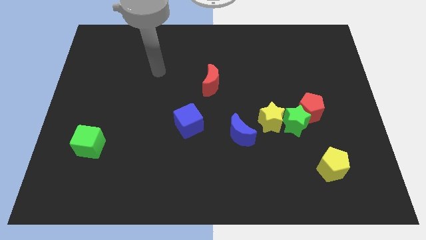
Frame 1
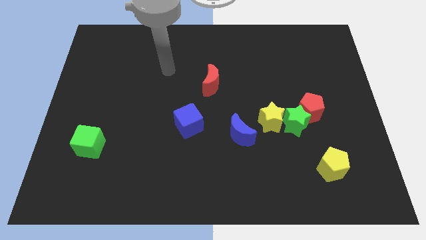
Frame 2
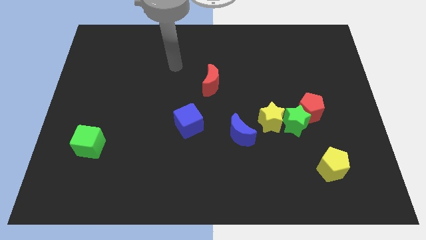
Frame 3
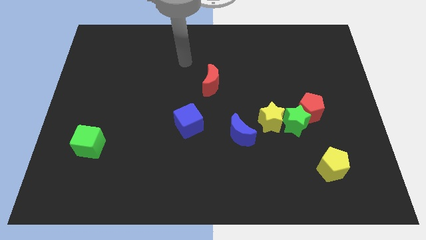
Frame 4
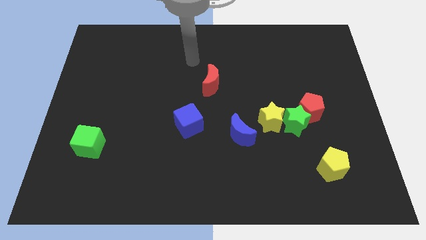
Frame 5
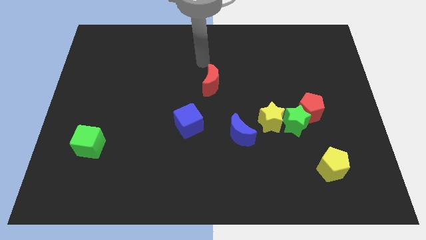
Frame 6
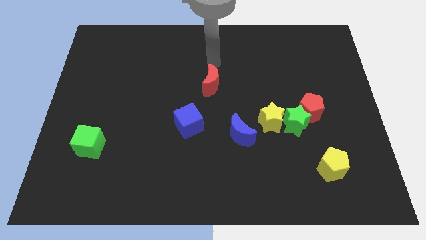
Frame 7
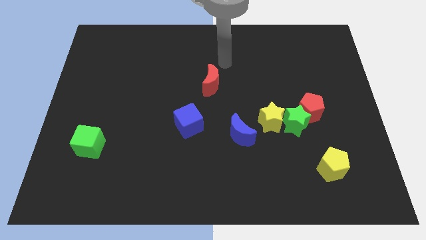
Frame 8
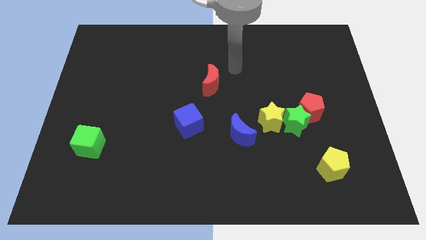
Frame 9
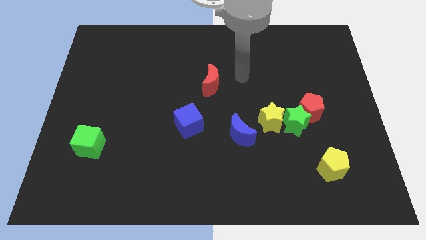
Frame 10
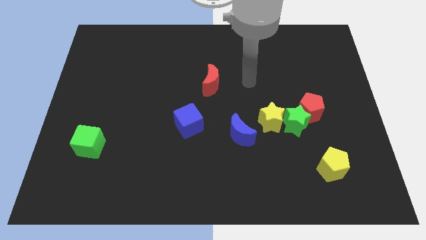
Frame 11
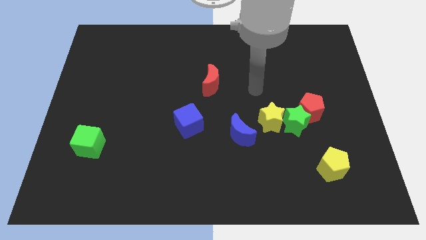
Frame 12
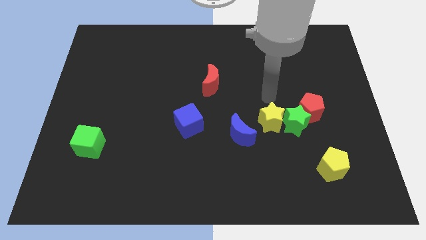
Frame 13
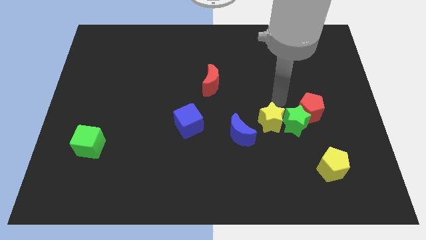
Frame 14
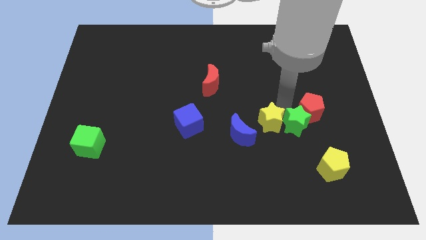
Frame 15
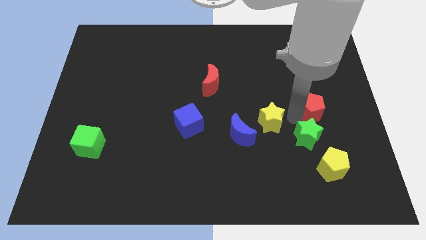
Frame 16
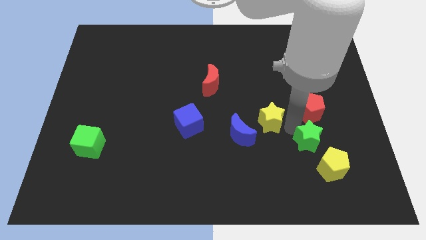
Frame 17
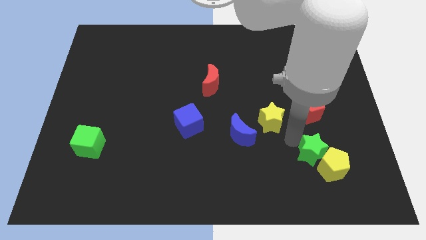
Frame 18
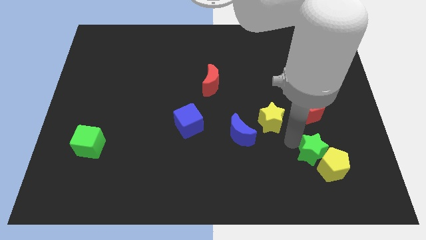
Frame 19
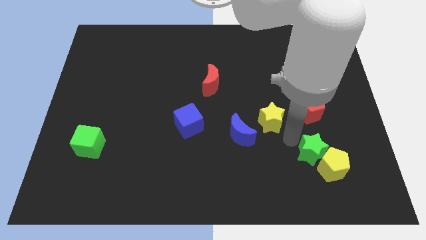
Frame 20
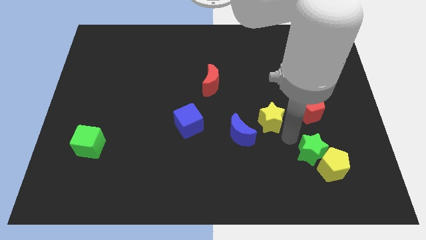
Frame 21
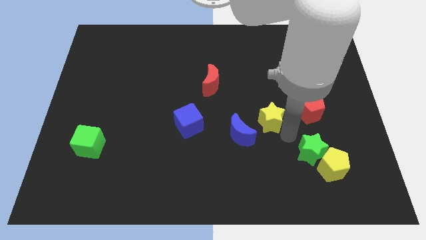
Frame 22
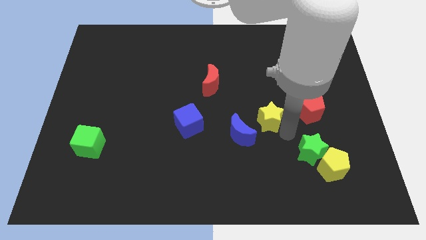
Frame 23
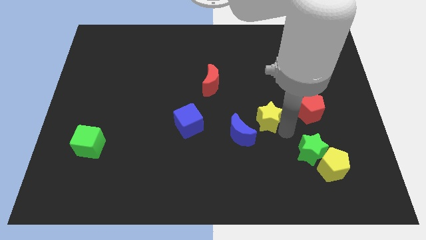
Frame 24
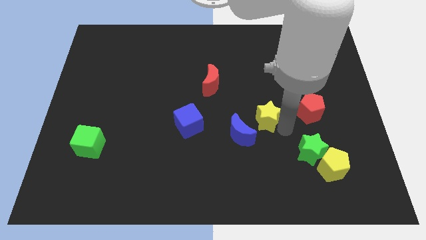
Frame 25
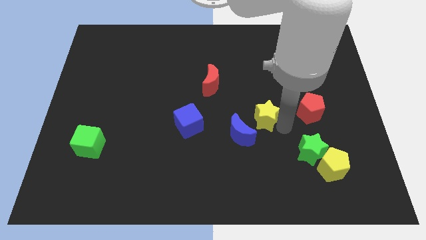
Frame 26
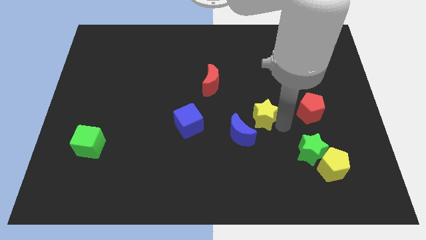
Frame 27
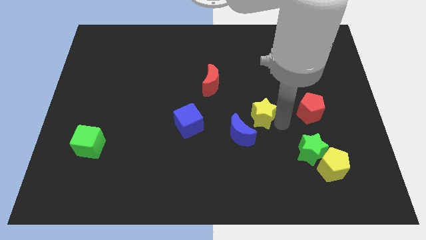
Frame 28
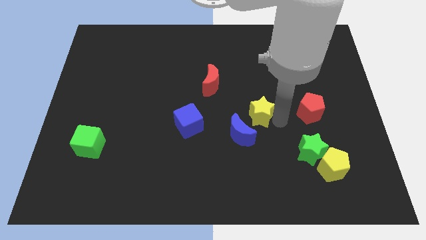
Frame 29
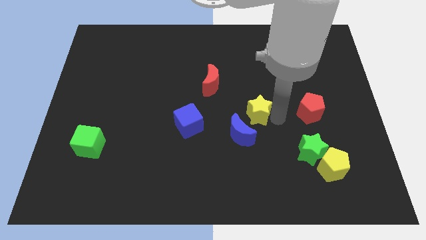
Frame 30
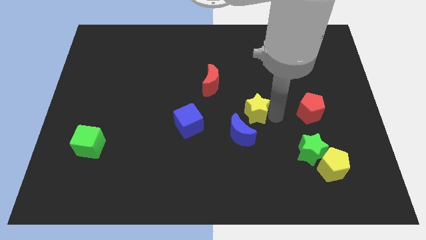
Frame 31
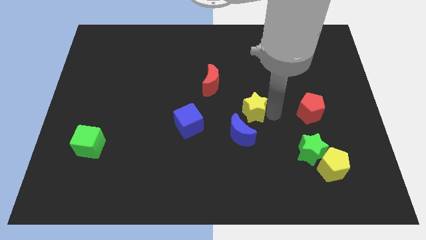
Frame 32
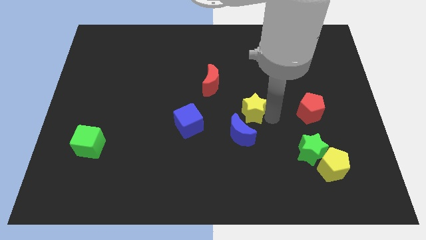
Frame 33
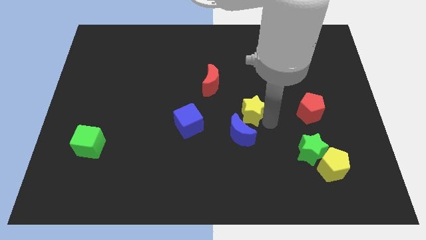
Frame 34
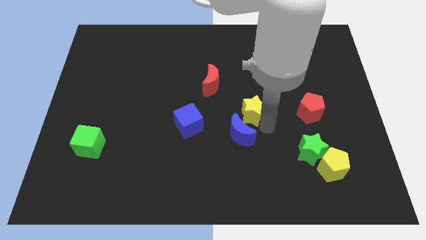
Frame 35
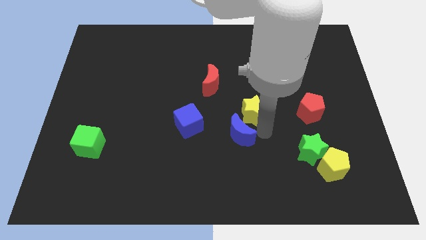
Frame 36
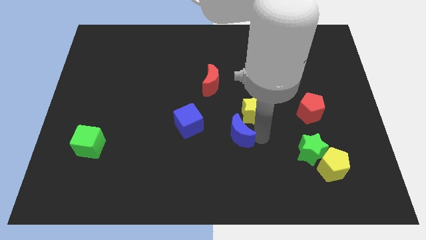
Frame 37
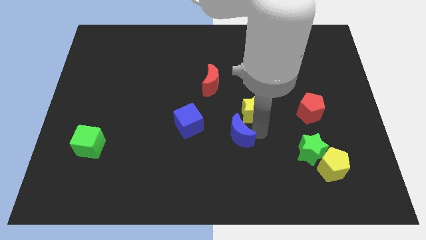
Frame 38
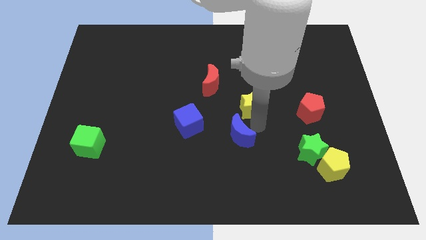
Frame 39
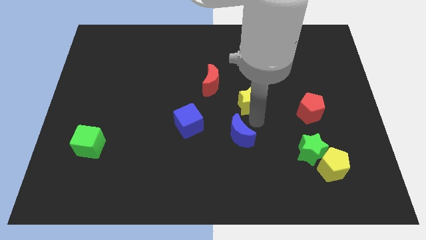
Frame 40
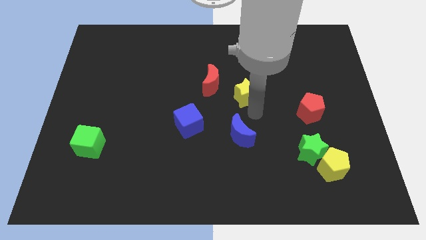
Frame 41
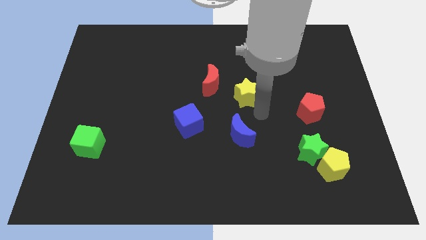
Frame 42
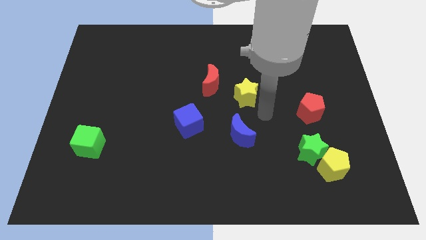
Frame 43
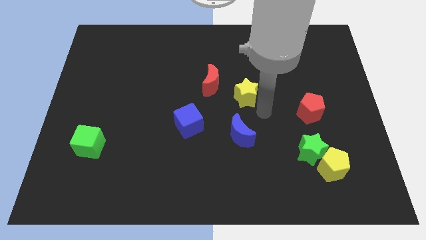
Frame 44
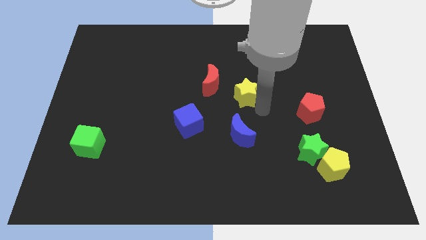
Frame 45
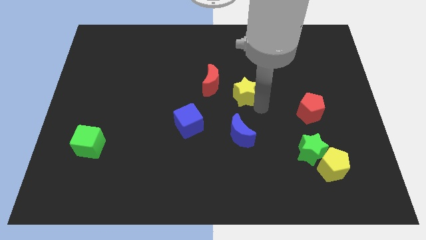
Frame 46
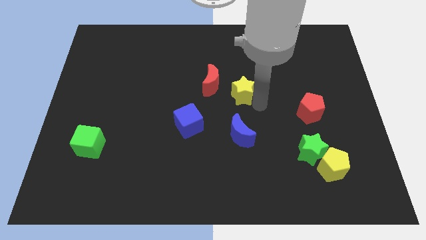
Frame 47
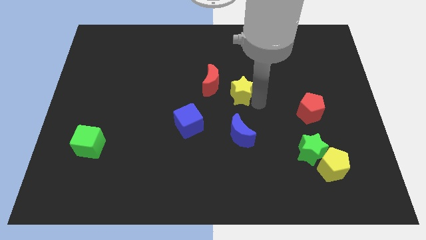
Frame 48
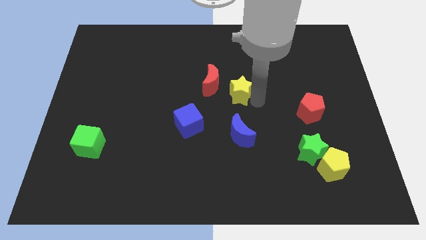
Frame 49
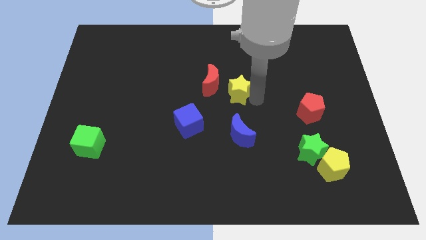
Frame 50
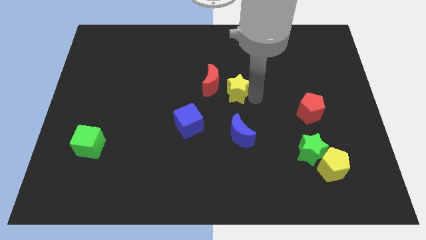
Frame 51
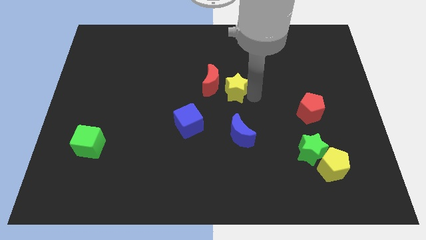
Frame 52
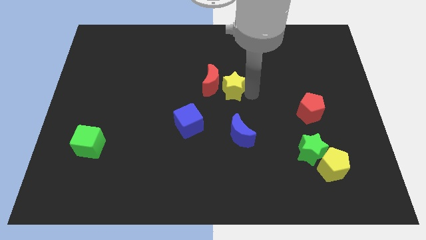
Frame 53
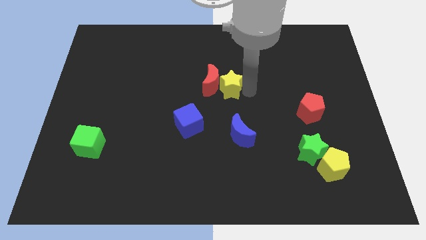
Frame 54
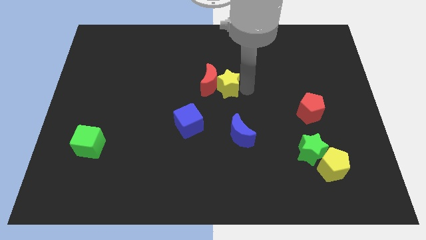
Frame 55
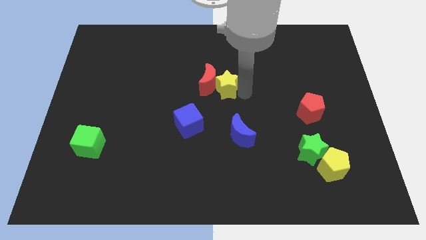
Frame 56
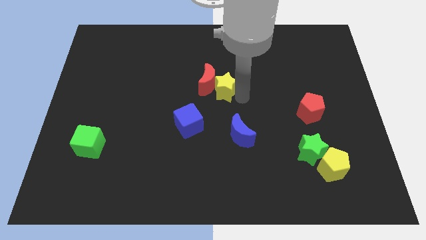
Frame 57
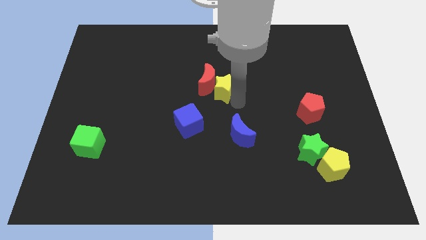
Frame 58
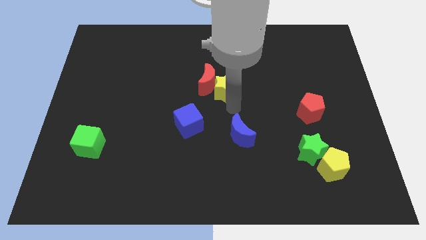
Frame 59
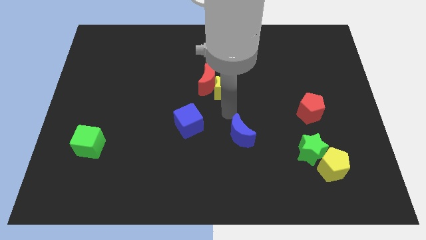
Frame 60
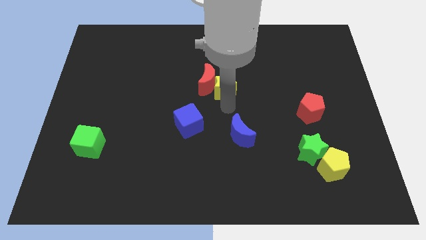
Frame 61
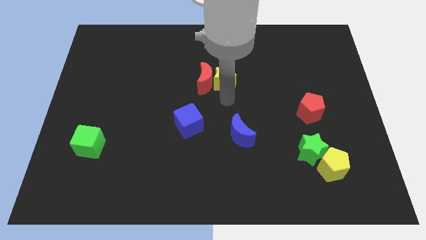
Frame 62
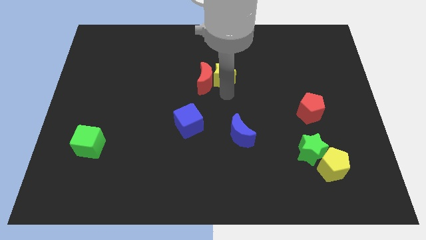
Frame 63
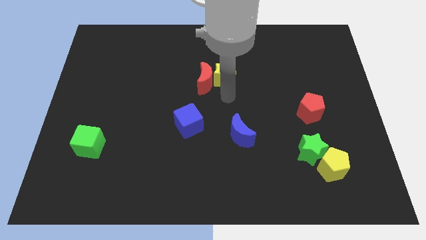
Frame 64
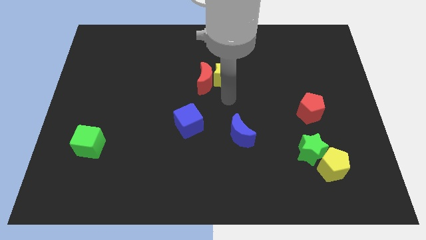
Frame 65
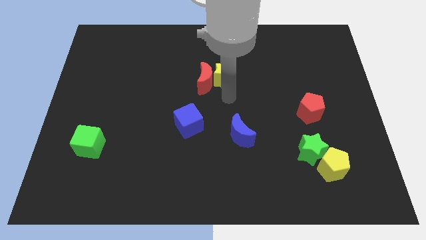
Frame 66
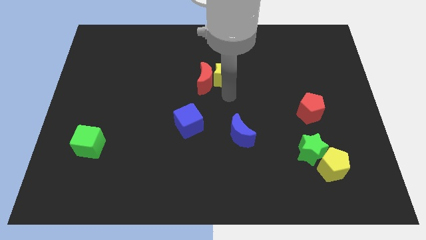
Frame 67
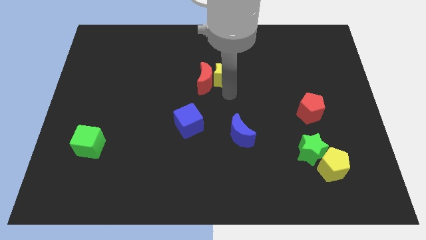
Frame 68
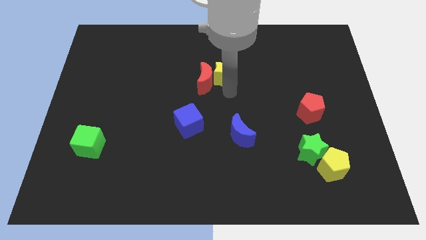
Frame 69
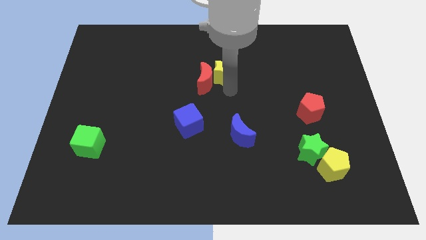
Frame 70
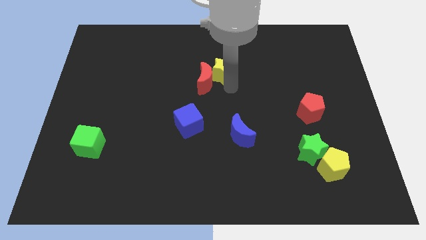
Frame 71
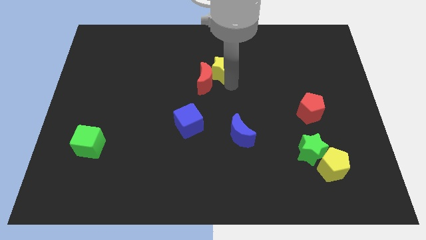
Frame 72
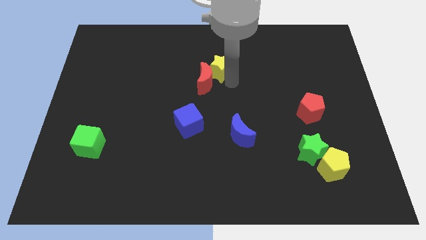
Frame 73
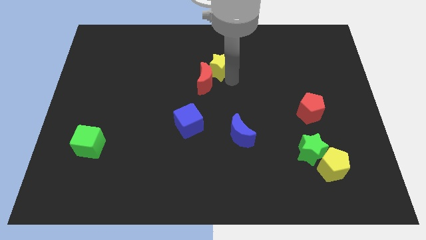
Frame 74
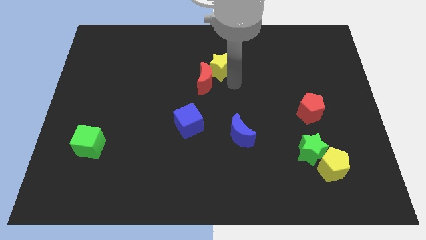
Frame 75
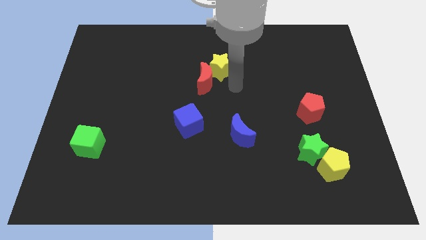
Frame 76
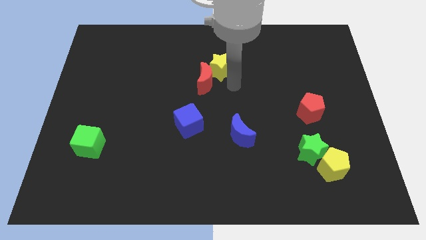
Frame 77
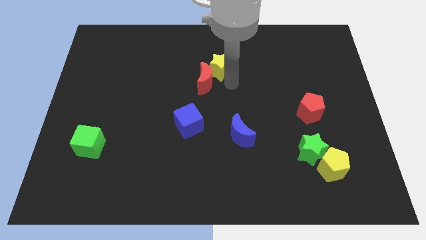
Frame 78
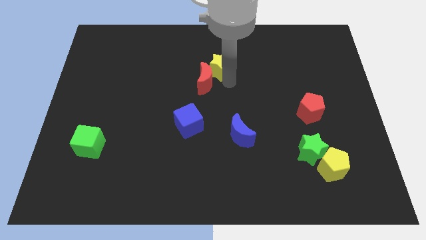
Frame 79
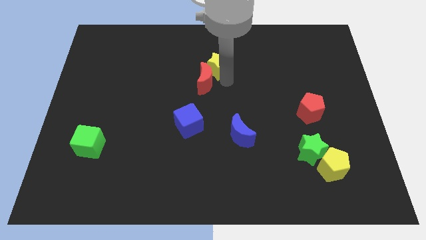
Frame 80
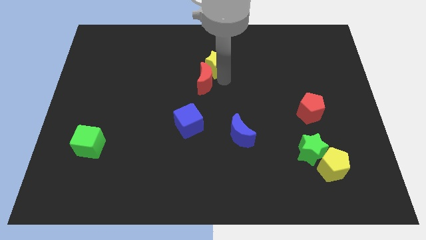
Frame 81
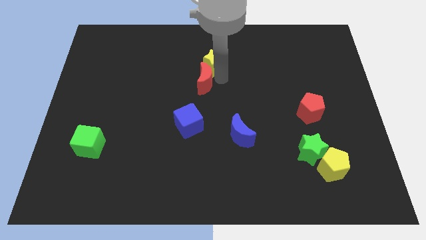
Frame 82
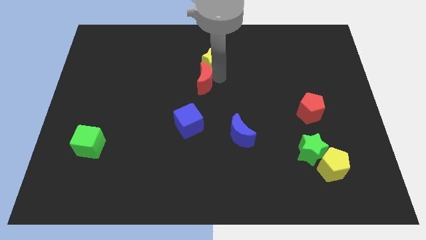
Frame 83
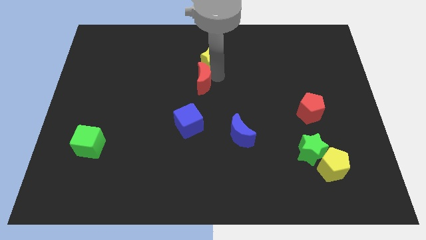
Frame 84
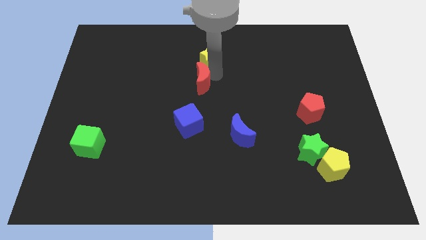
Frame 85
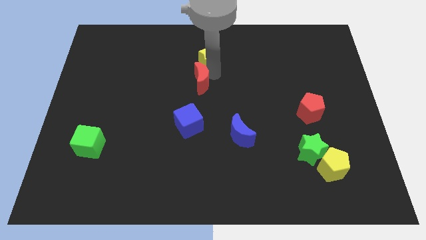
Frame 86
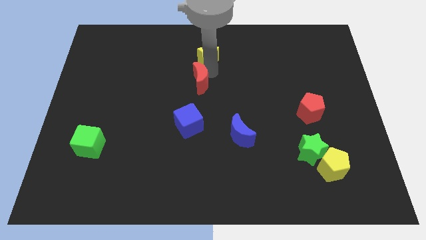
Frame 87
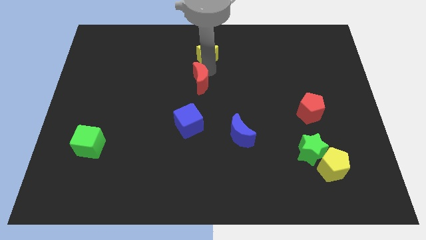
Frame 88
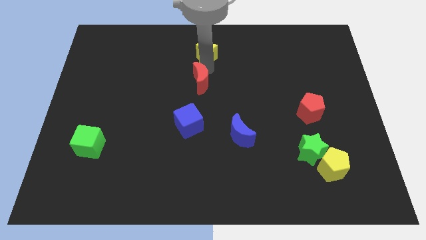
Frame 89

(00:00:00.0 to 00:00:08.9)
move the yellow star to the top
